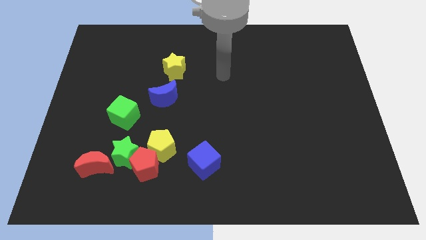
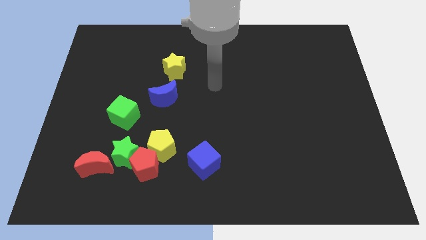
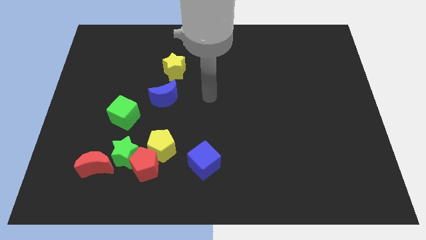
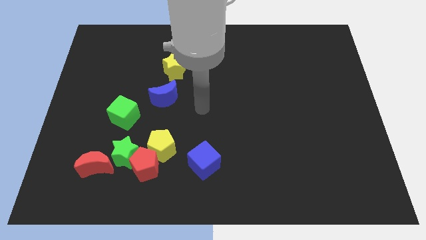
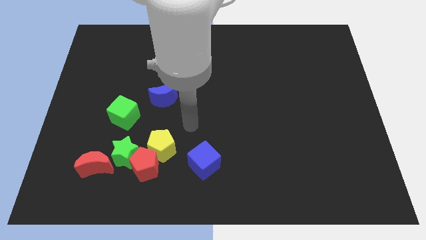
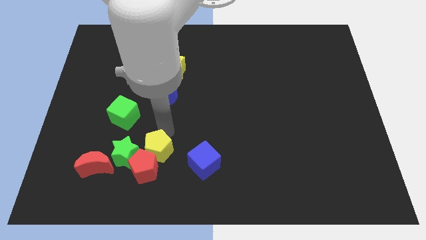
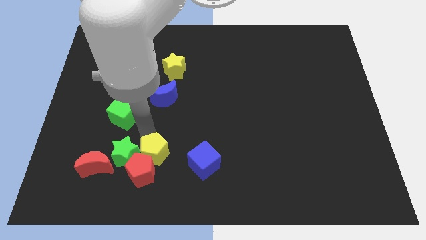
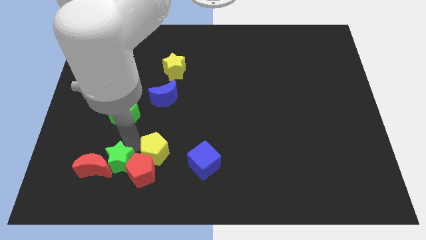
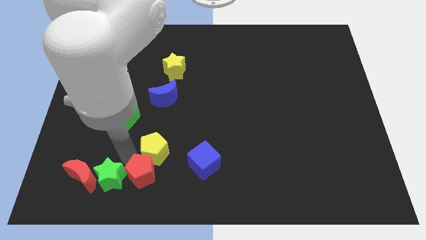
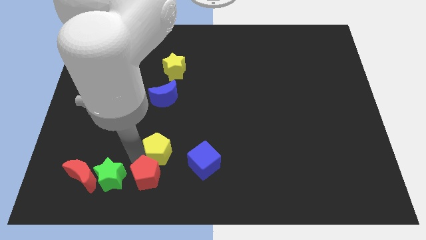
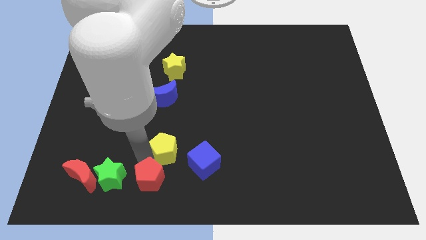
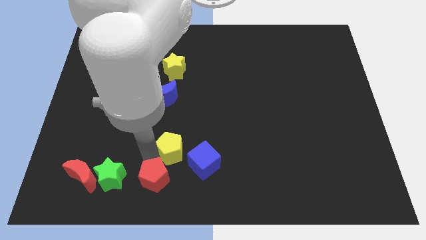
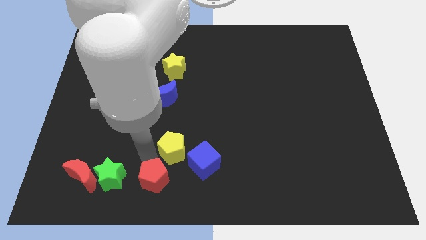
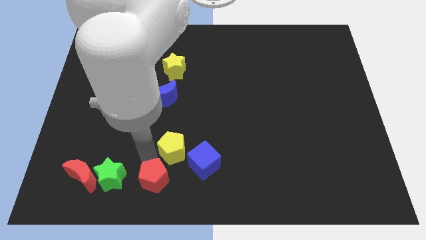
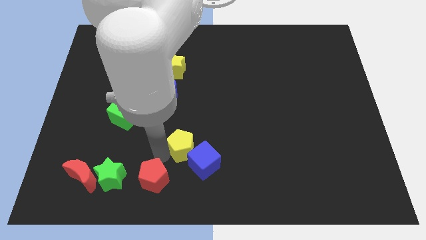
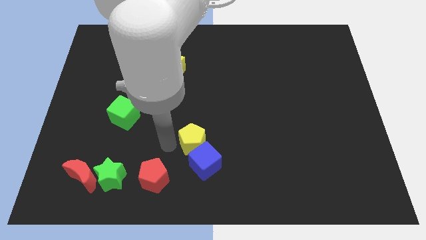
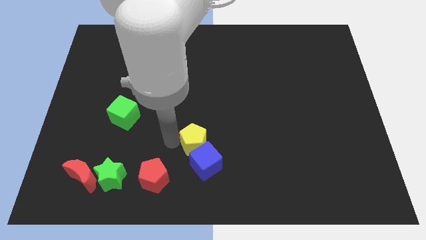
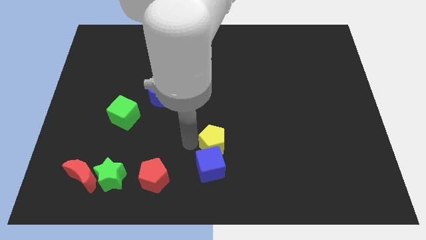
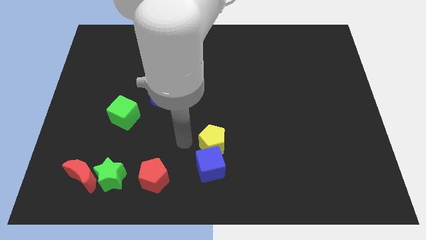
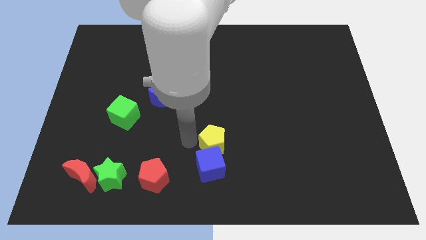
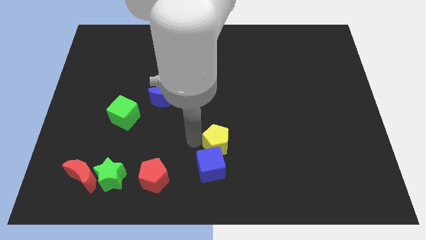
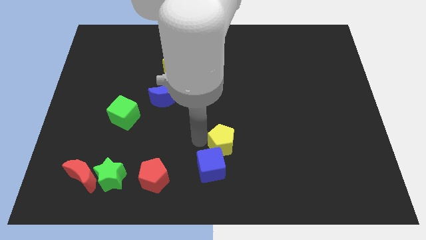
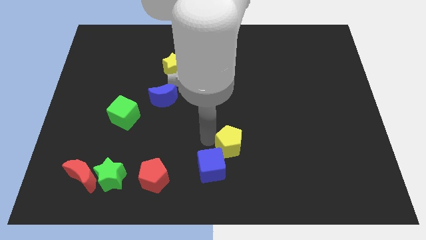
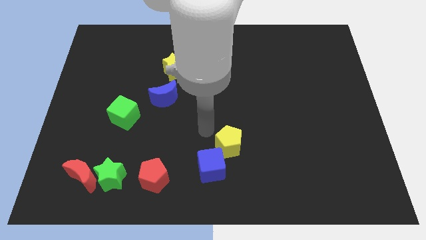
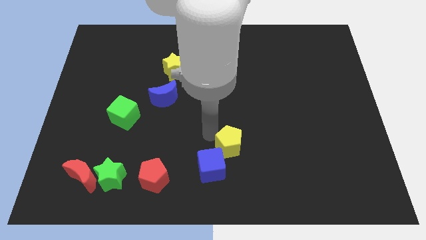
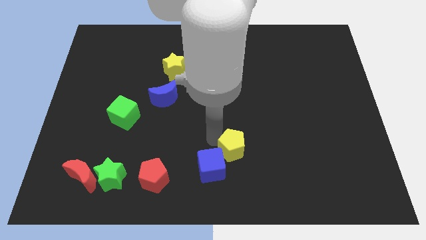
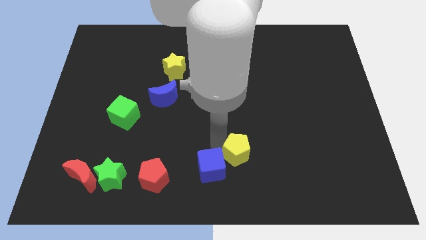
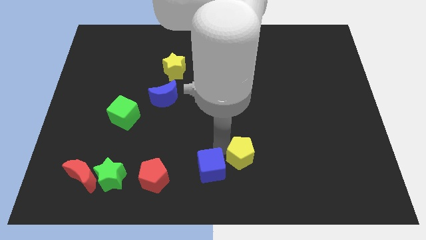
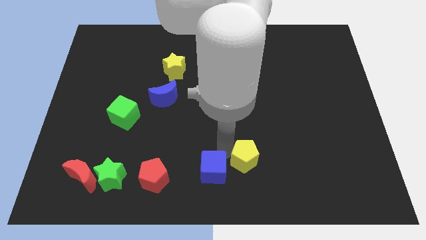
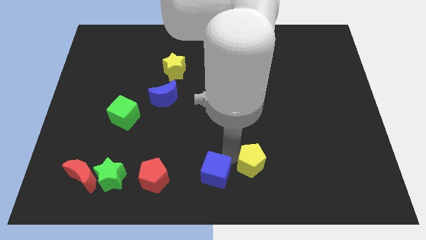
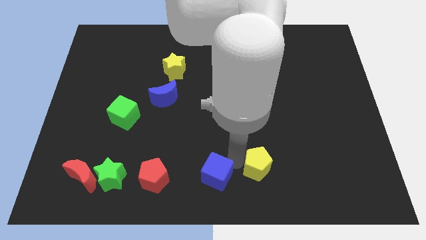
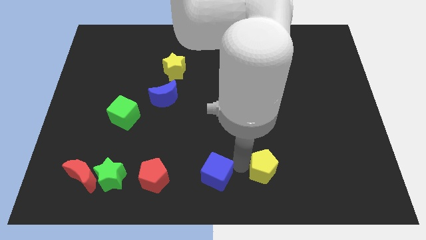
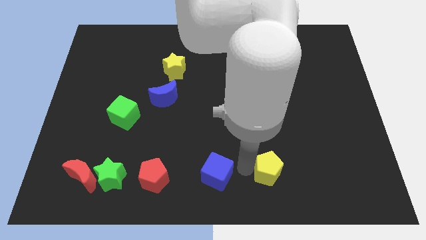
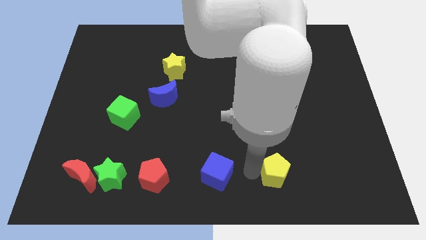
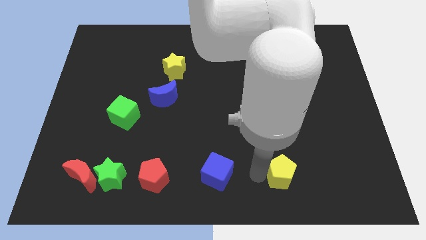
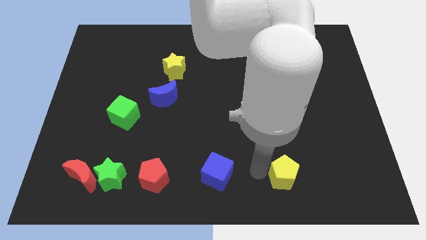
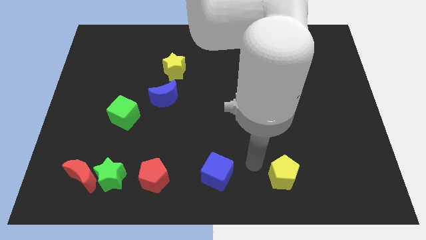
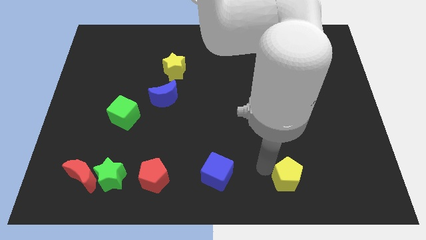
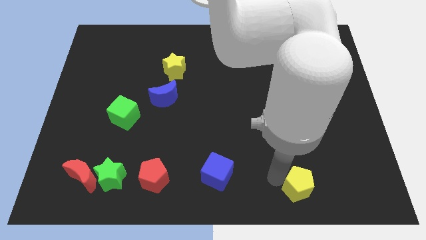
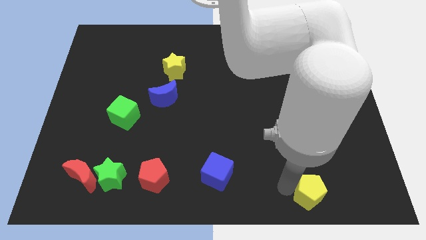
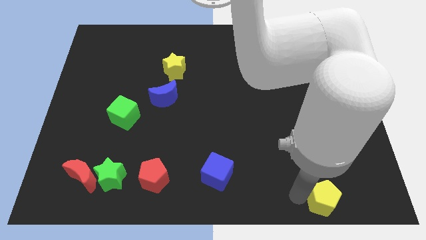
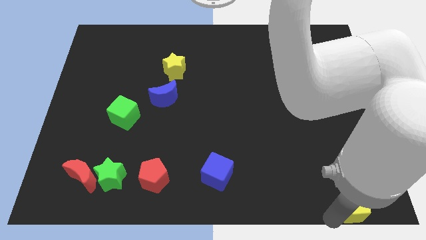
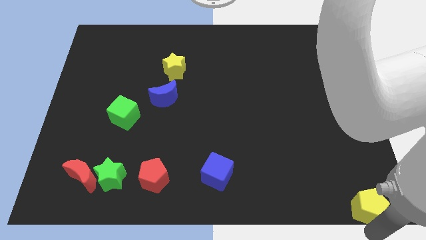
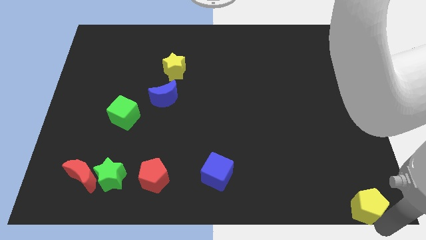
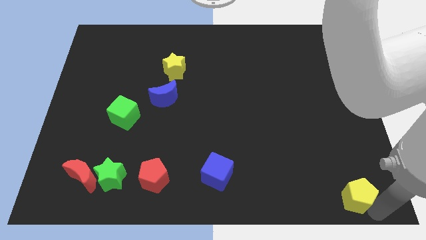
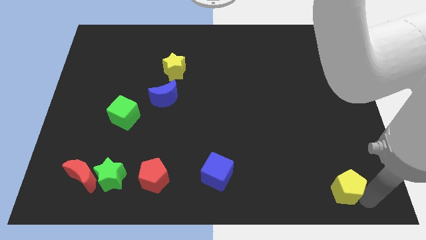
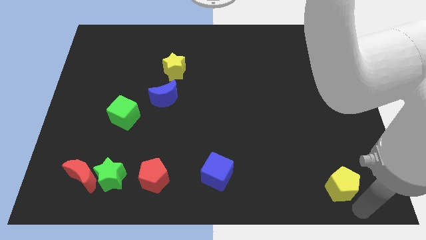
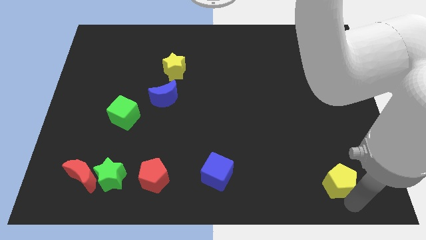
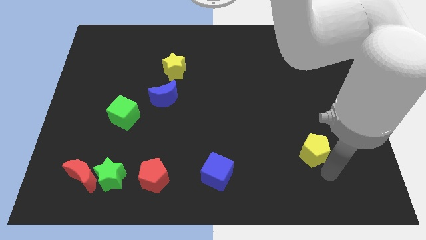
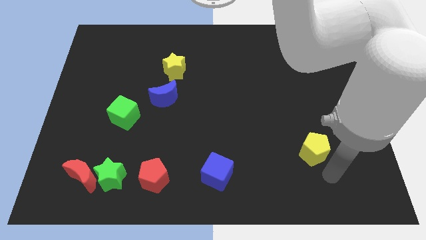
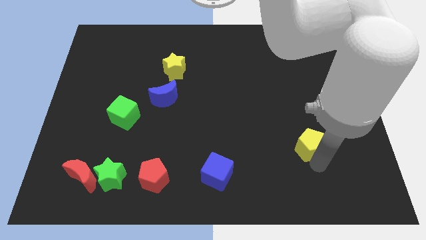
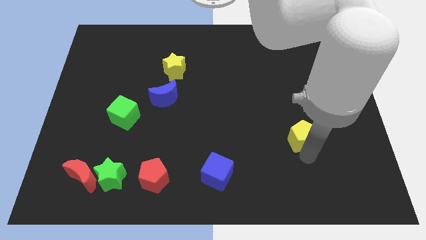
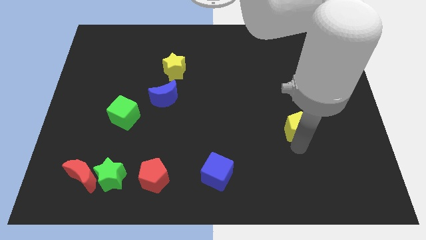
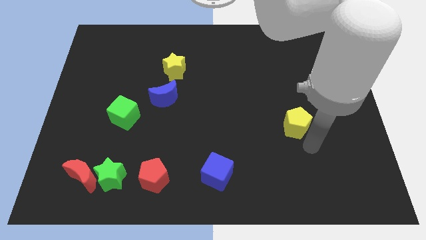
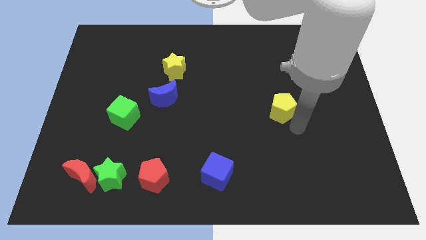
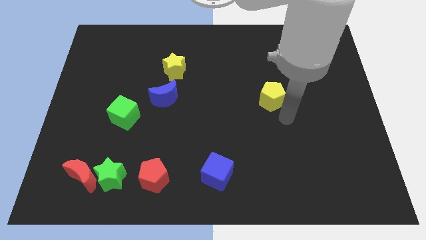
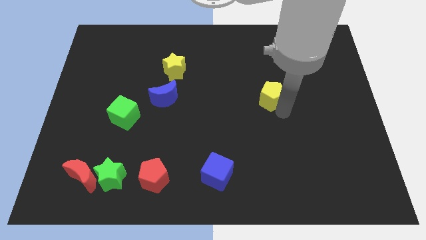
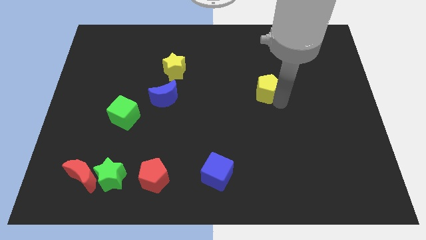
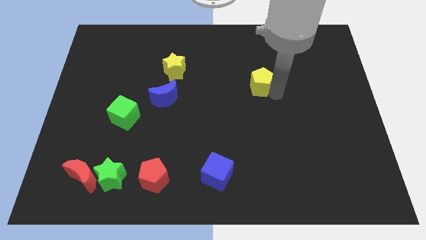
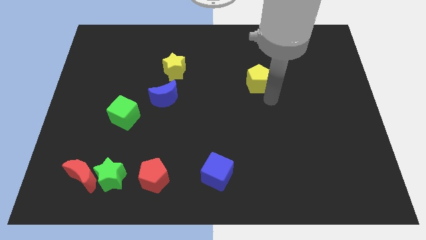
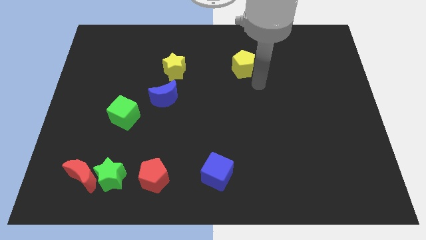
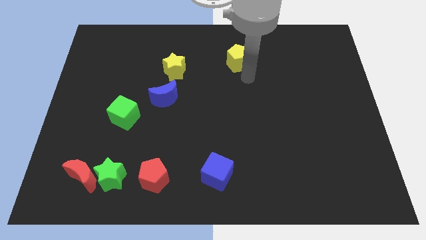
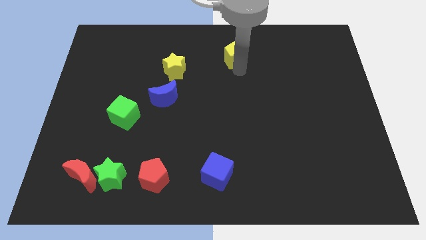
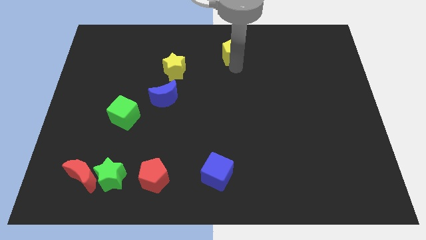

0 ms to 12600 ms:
push the yellow pentagon to the top
